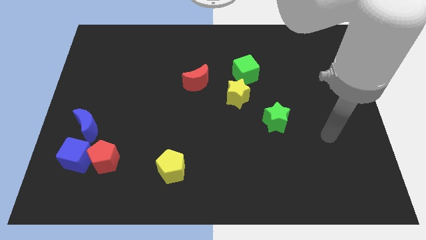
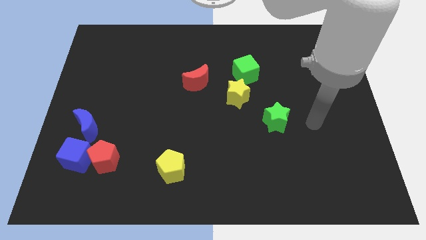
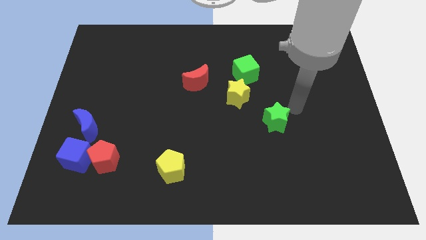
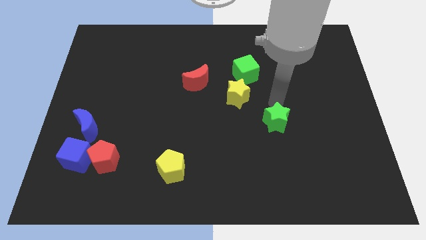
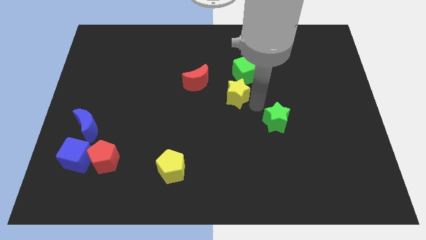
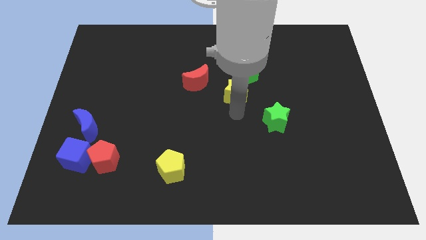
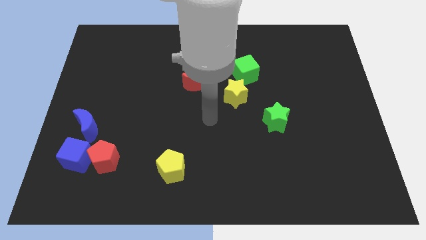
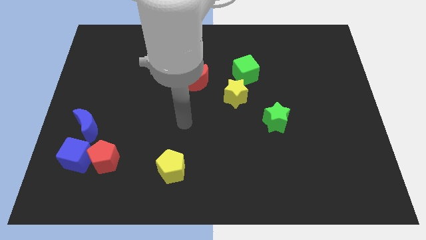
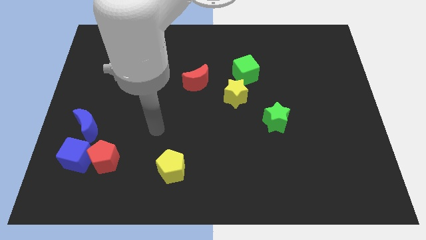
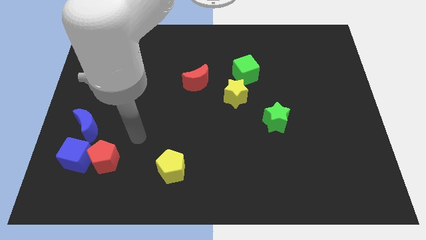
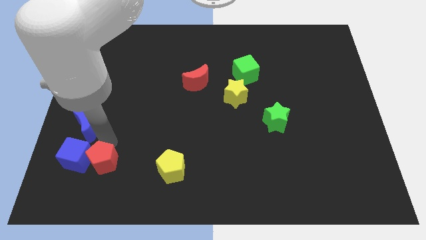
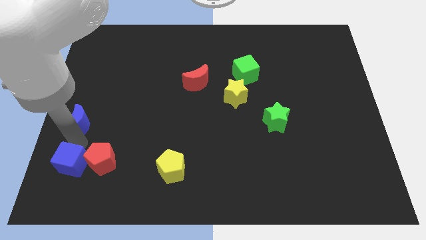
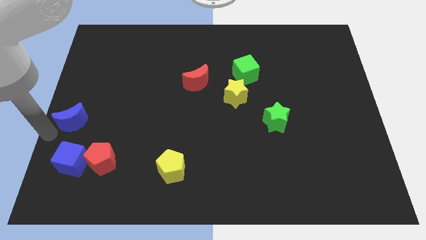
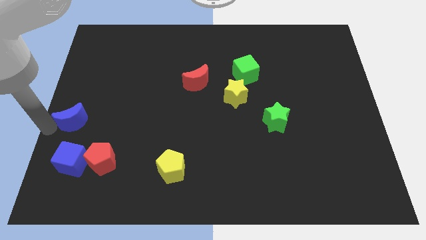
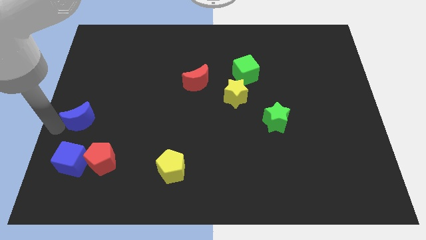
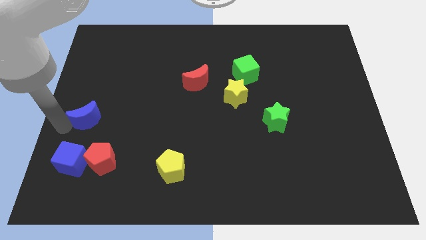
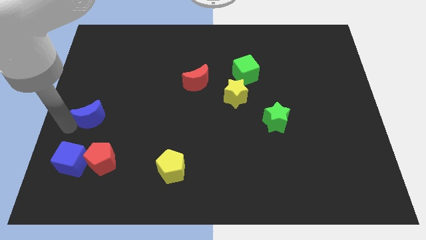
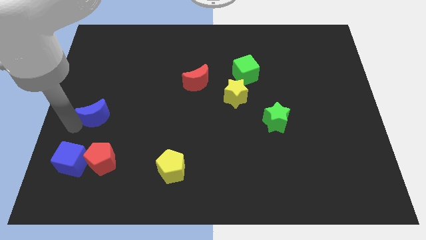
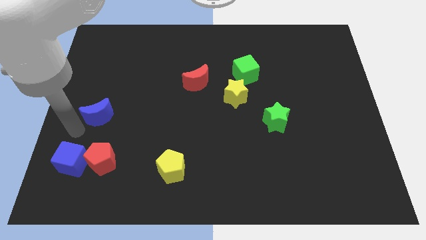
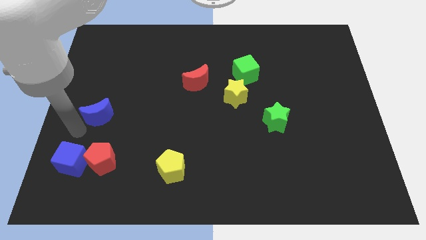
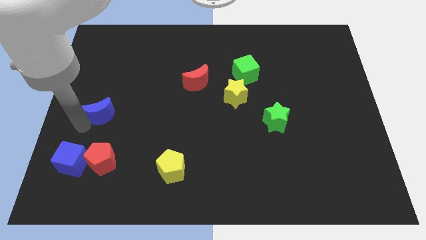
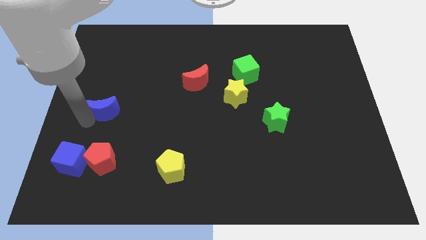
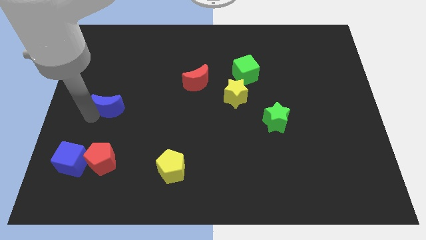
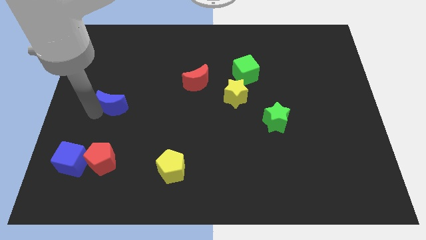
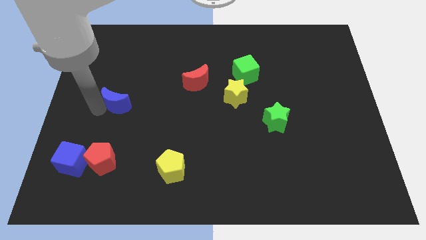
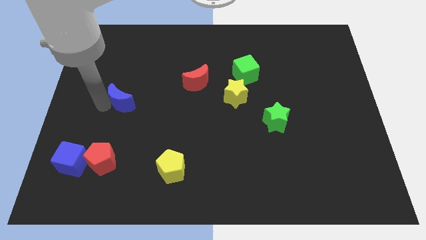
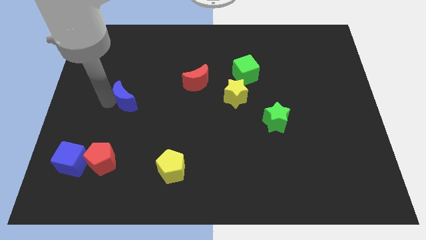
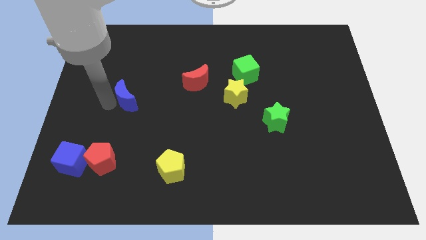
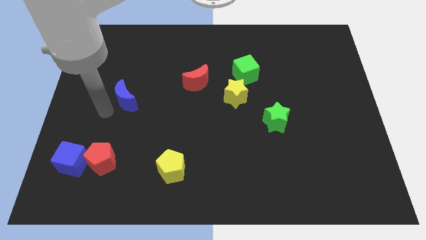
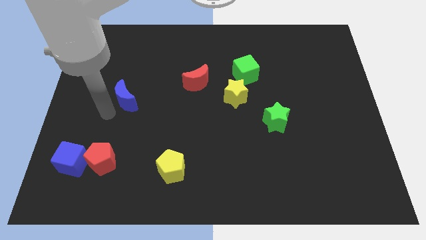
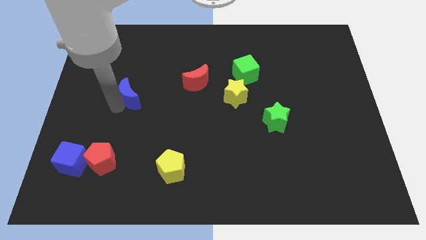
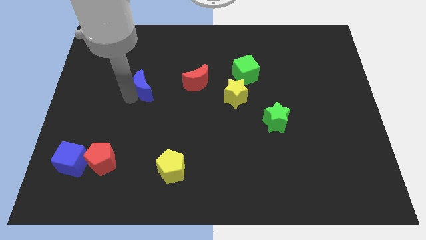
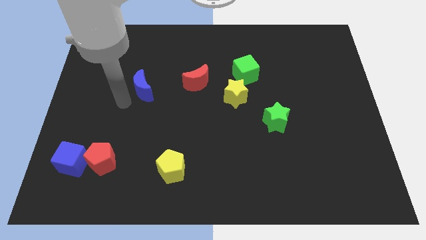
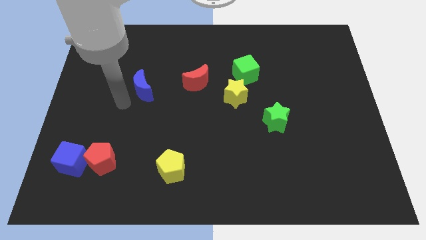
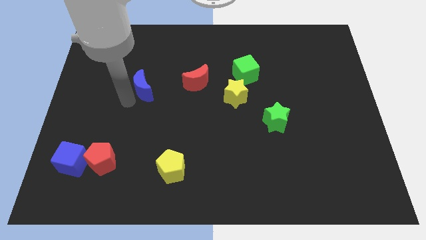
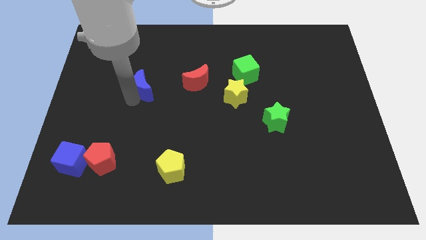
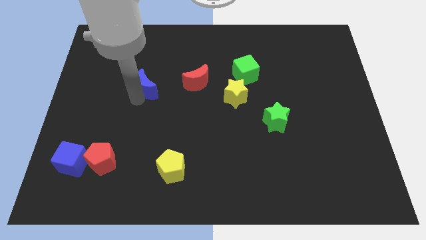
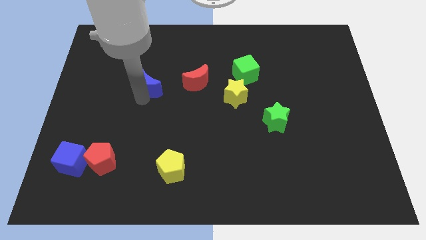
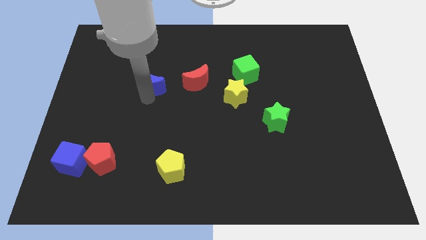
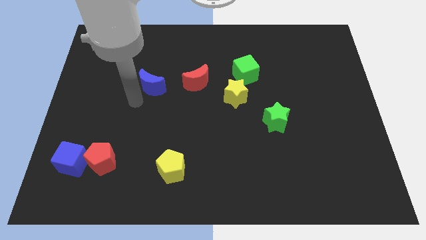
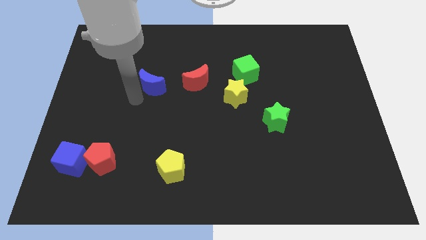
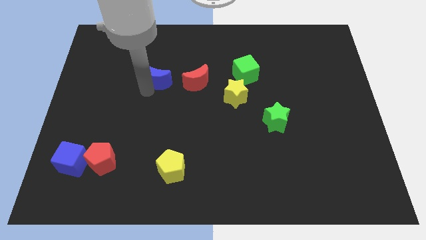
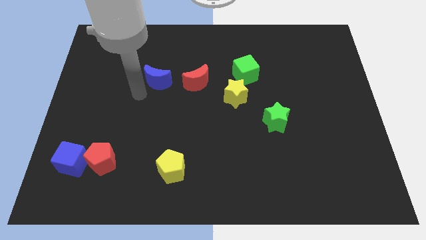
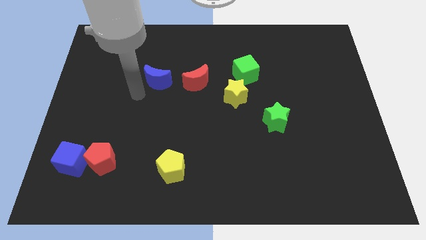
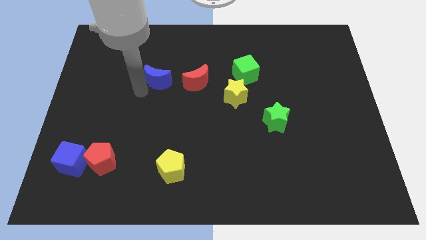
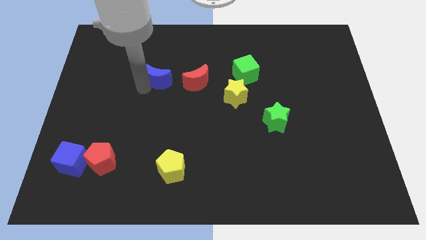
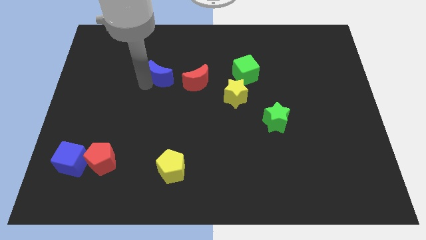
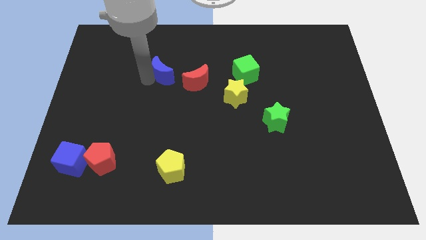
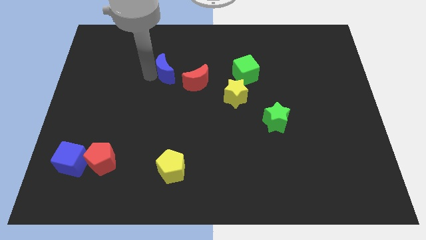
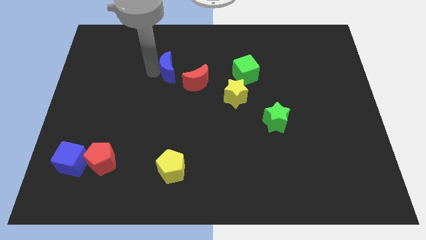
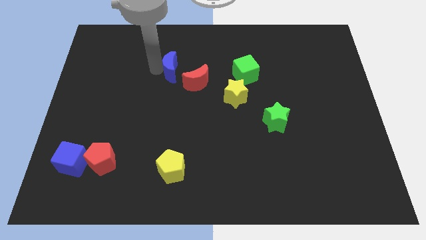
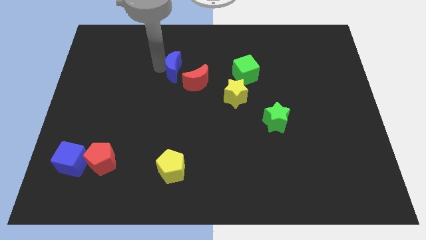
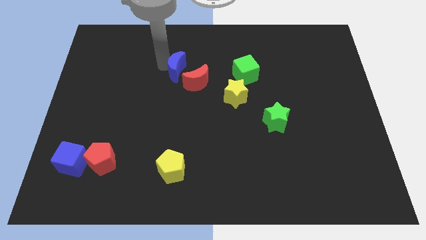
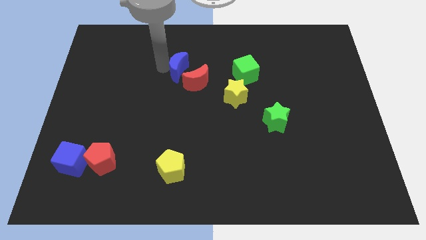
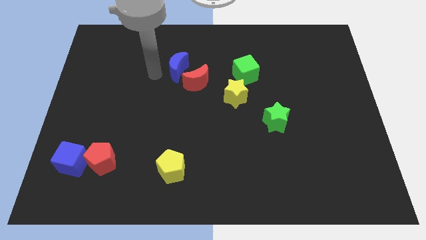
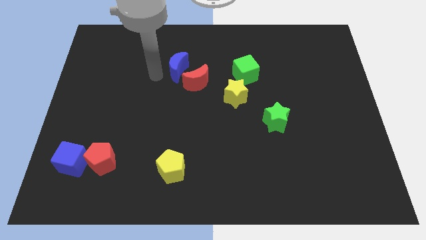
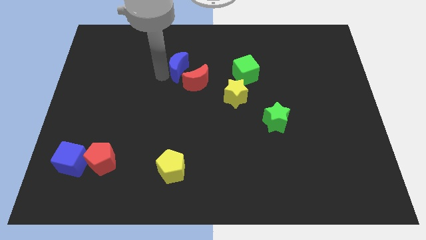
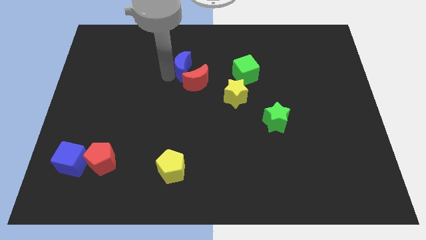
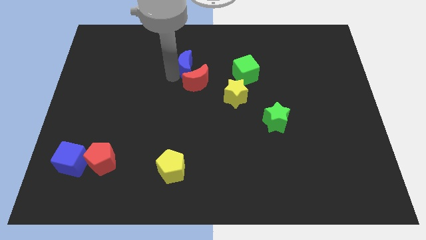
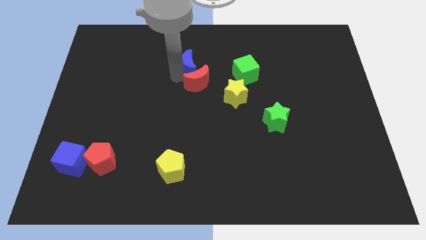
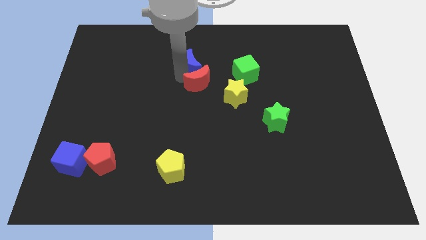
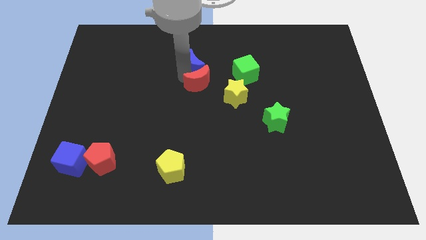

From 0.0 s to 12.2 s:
put the blue moon to the top right of the red moon
